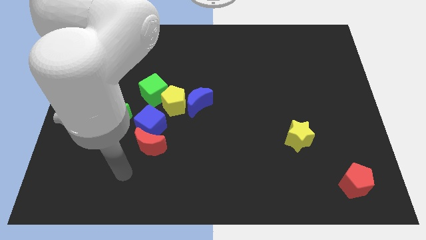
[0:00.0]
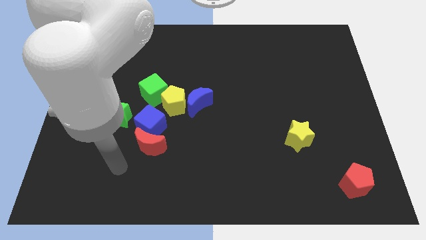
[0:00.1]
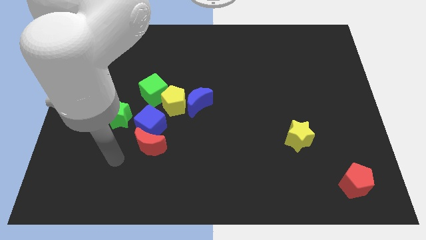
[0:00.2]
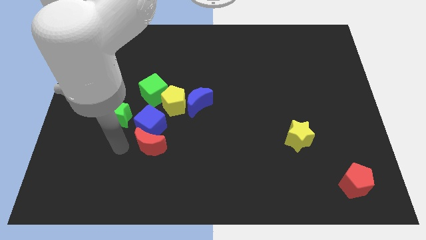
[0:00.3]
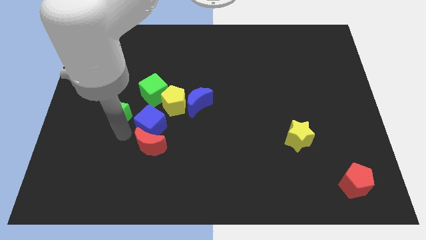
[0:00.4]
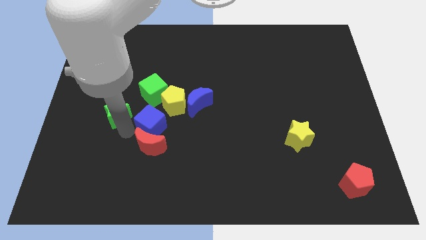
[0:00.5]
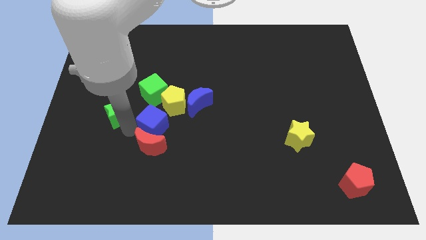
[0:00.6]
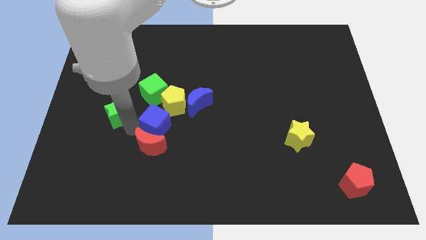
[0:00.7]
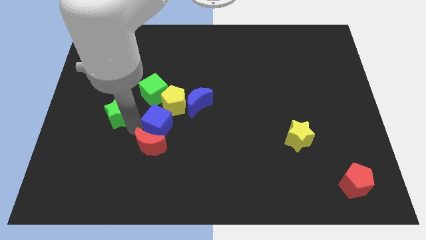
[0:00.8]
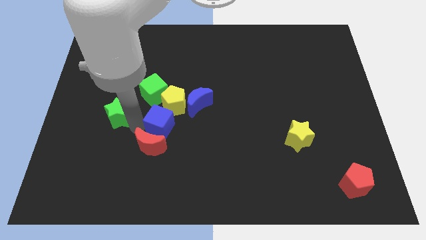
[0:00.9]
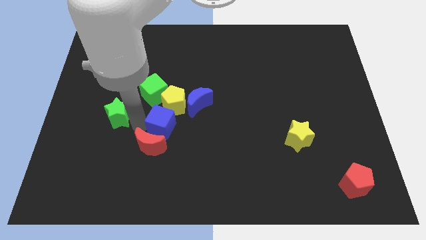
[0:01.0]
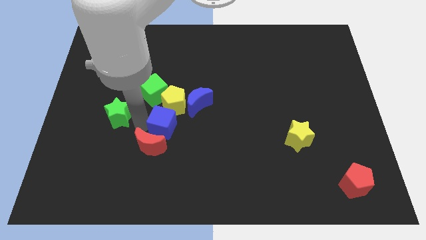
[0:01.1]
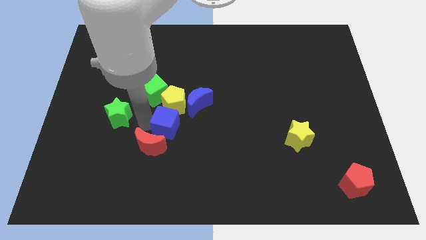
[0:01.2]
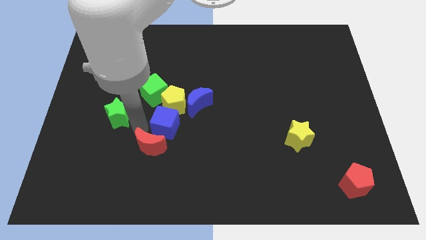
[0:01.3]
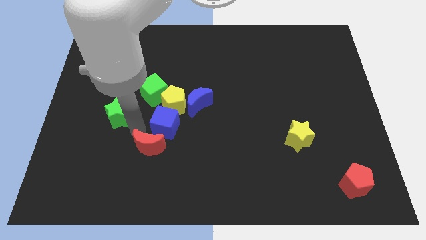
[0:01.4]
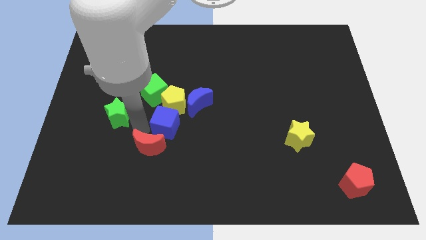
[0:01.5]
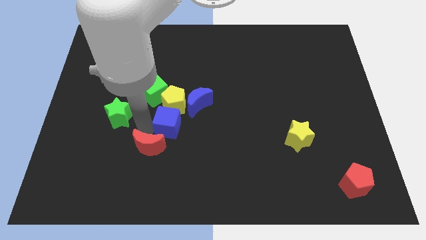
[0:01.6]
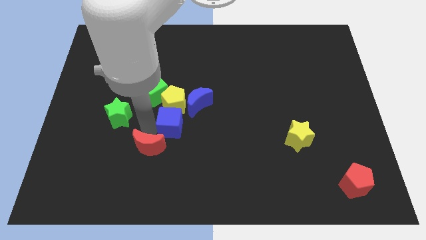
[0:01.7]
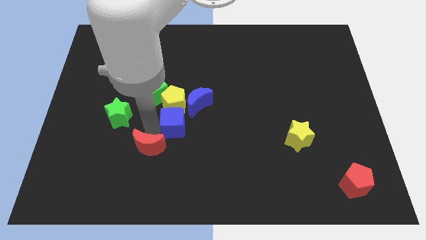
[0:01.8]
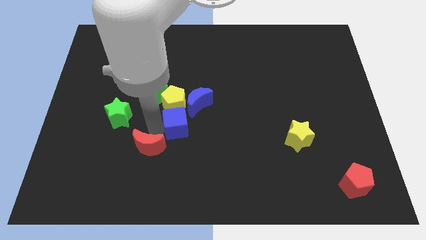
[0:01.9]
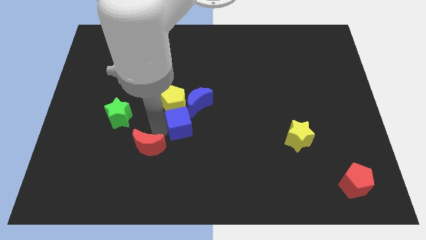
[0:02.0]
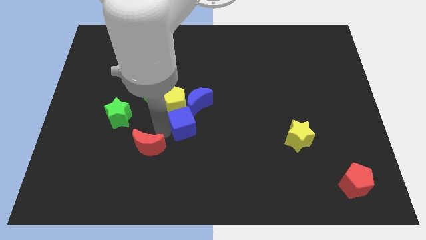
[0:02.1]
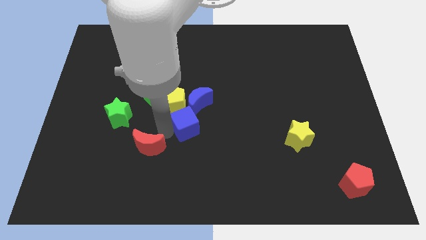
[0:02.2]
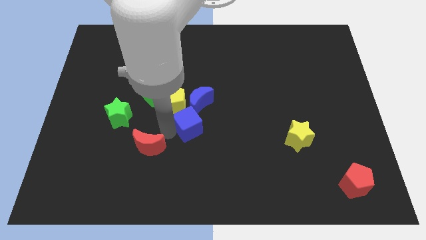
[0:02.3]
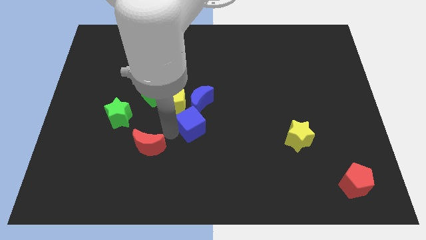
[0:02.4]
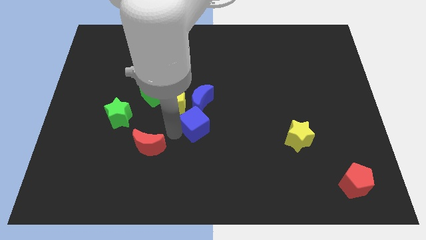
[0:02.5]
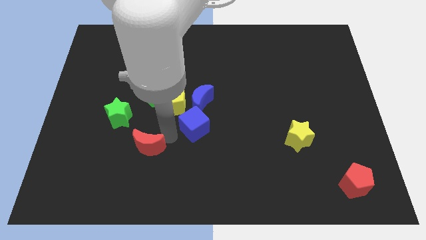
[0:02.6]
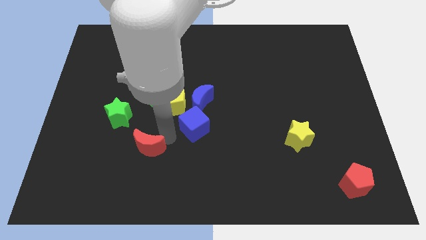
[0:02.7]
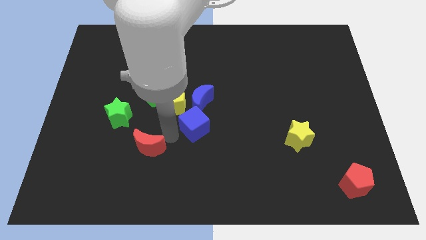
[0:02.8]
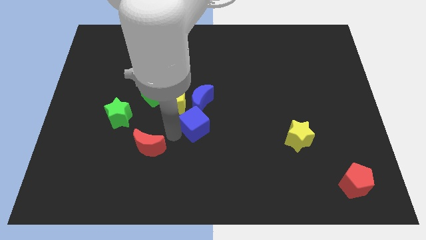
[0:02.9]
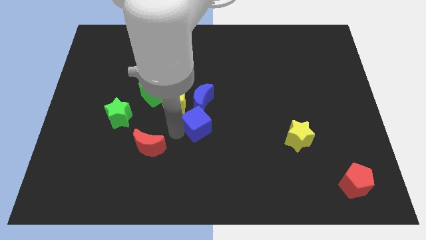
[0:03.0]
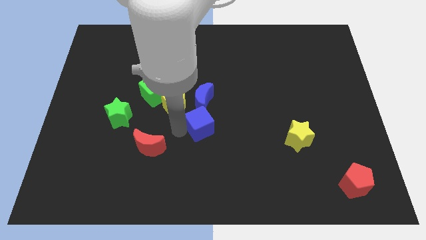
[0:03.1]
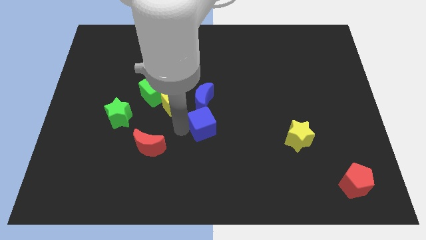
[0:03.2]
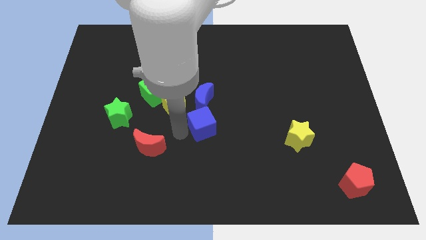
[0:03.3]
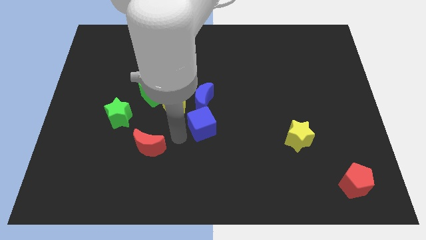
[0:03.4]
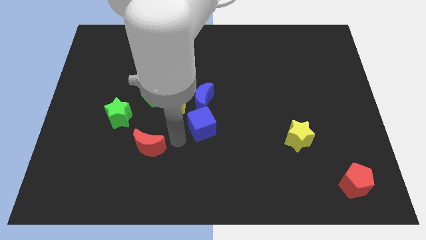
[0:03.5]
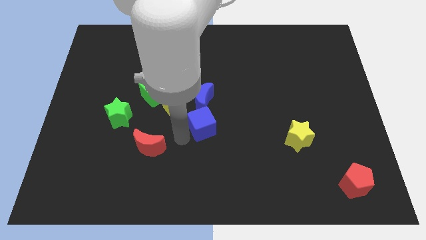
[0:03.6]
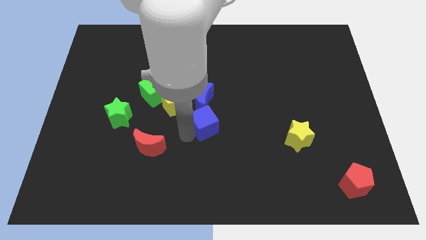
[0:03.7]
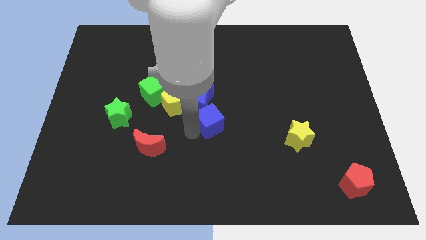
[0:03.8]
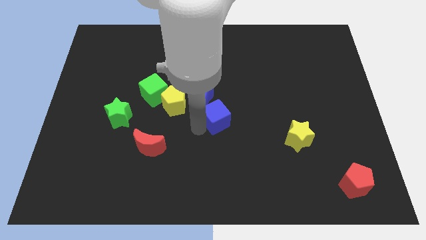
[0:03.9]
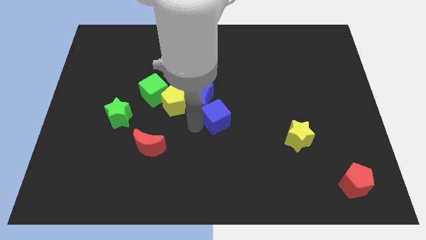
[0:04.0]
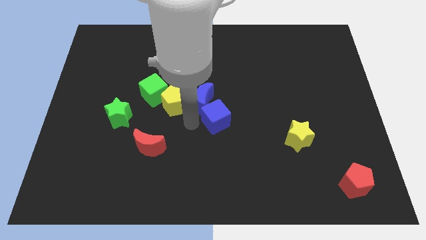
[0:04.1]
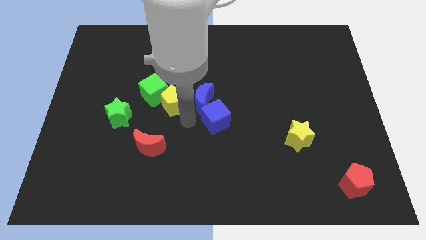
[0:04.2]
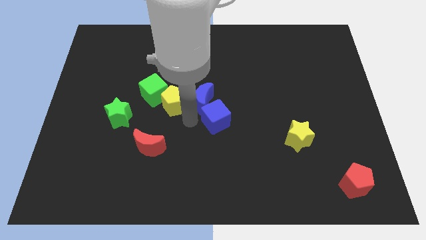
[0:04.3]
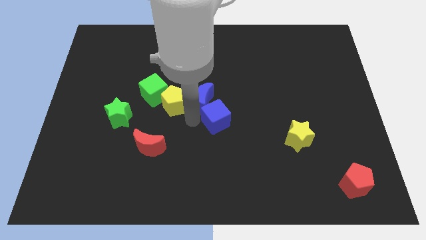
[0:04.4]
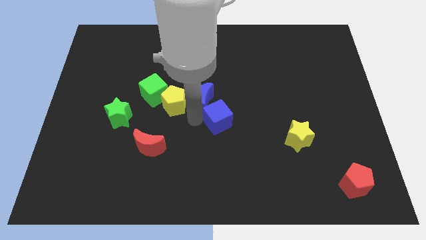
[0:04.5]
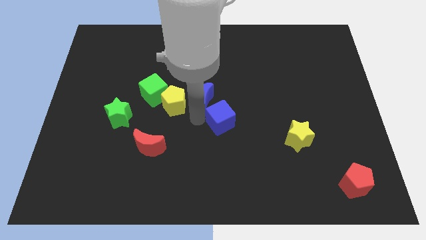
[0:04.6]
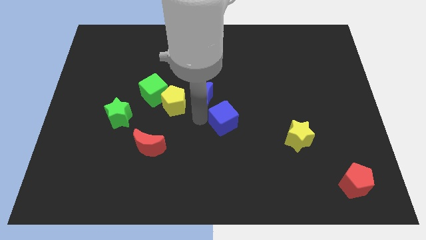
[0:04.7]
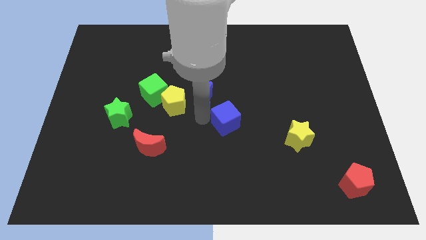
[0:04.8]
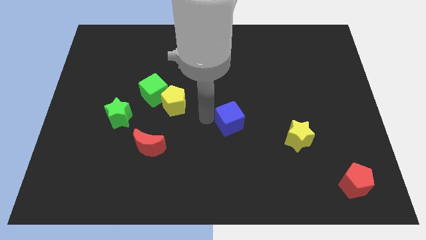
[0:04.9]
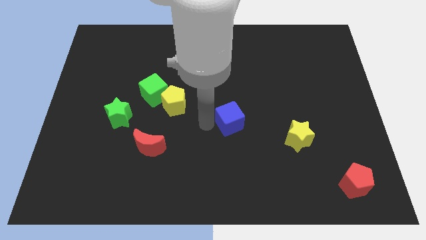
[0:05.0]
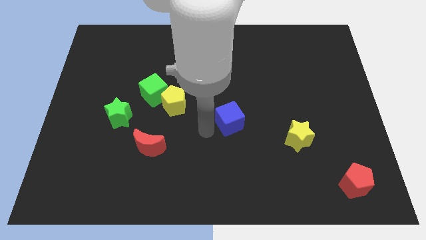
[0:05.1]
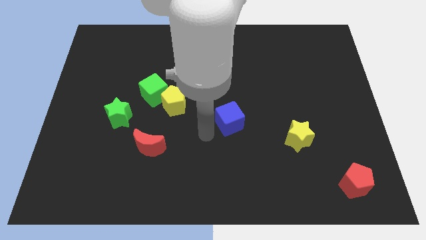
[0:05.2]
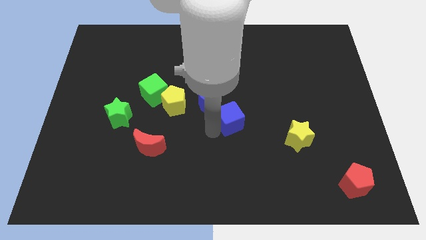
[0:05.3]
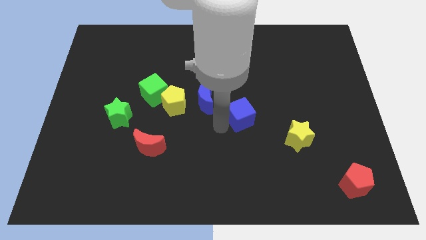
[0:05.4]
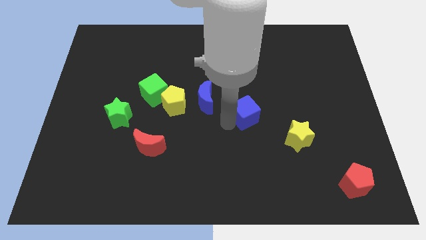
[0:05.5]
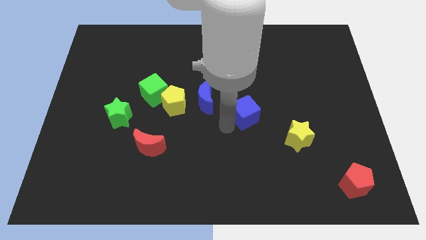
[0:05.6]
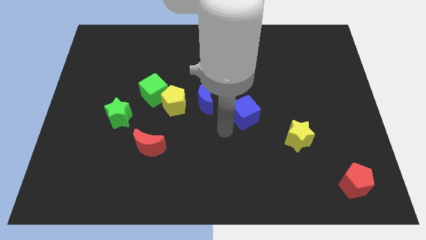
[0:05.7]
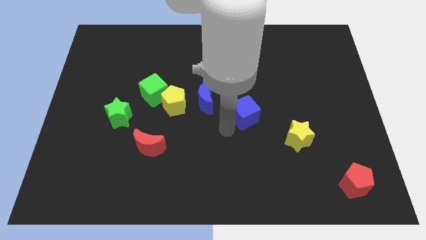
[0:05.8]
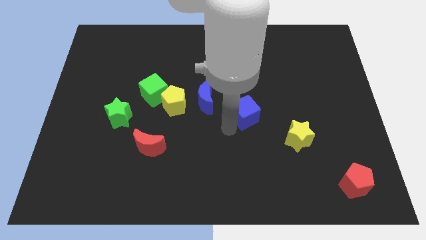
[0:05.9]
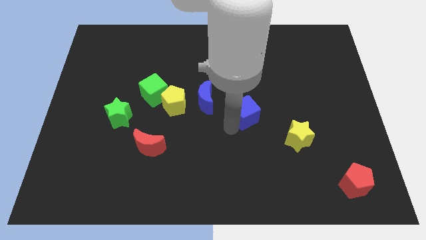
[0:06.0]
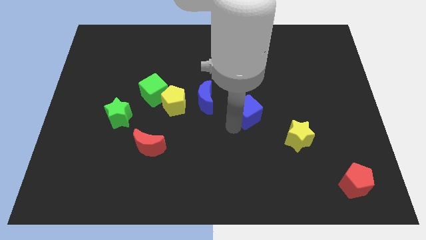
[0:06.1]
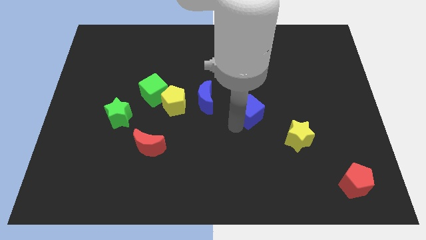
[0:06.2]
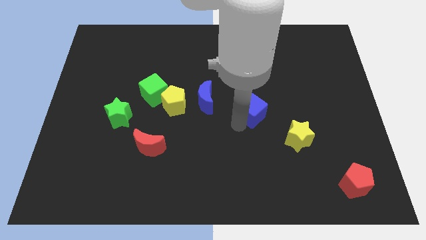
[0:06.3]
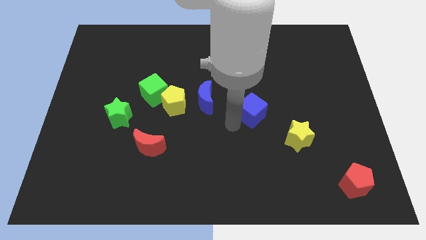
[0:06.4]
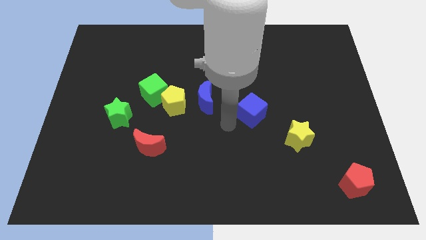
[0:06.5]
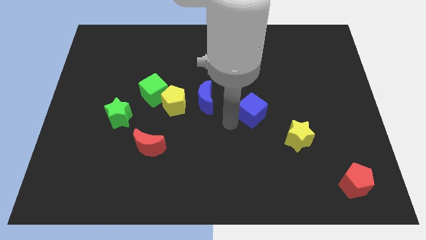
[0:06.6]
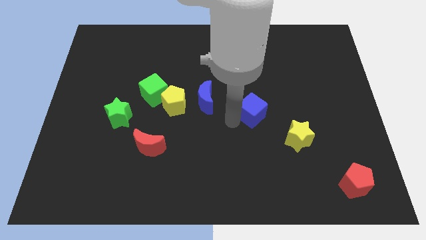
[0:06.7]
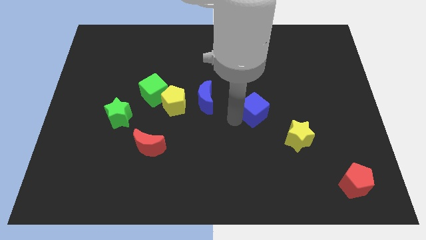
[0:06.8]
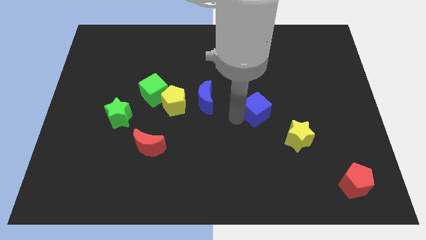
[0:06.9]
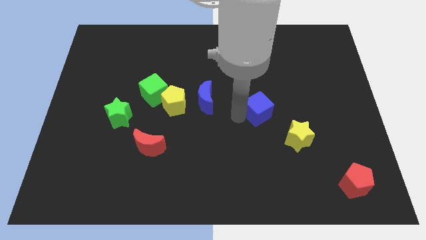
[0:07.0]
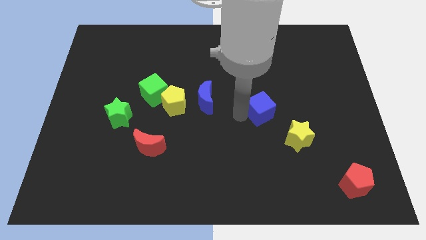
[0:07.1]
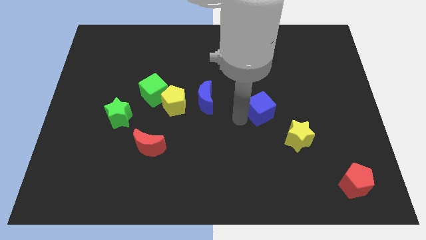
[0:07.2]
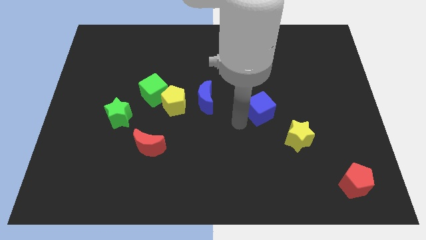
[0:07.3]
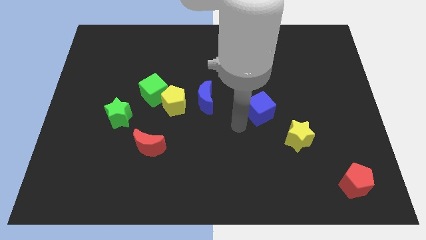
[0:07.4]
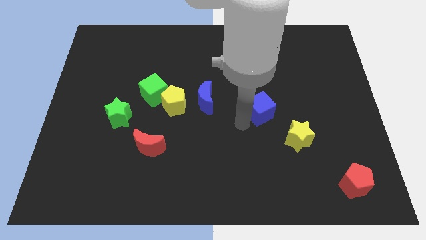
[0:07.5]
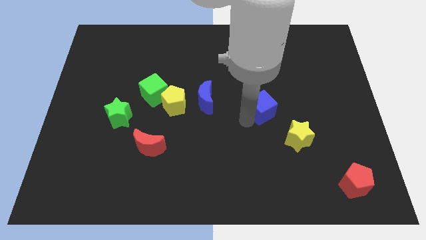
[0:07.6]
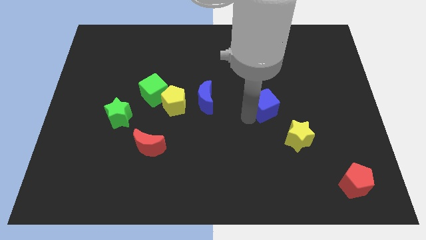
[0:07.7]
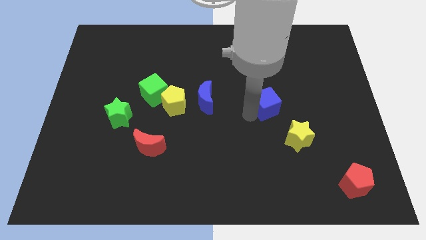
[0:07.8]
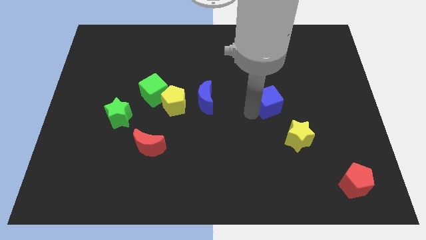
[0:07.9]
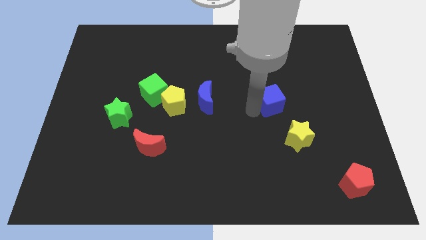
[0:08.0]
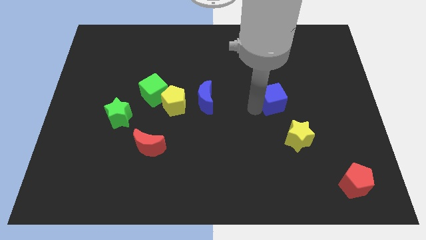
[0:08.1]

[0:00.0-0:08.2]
slide the blue cube to the top side of the yellow star
